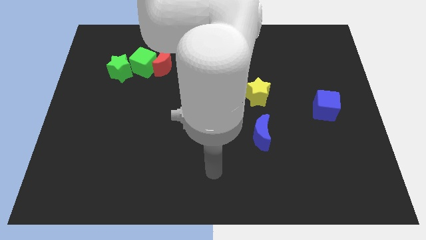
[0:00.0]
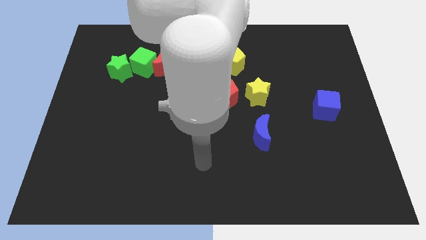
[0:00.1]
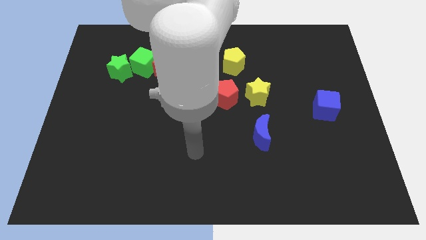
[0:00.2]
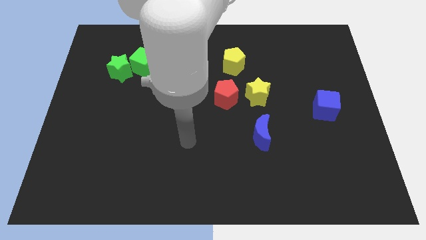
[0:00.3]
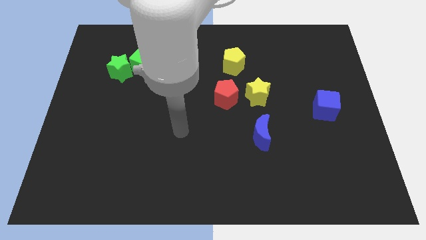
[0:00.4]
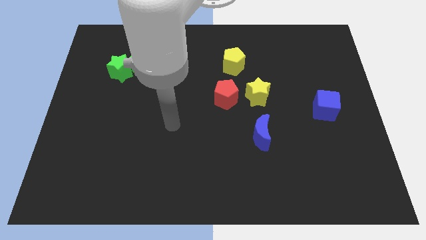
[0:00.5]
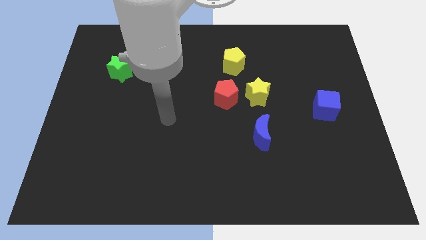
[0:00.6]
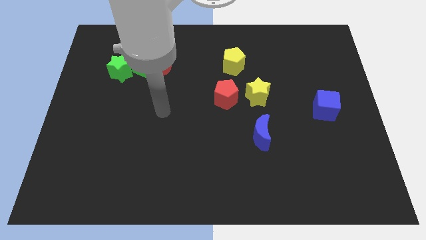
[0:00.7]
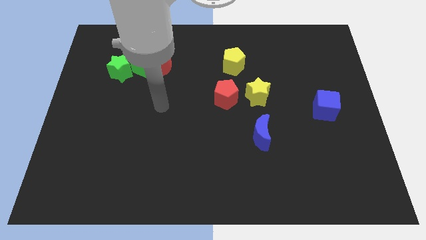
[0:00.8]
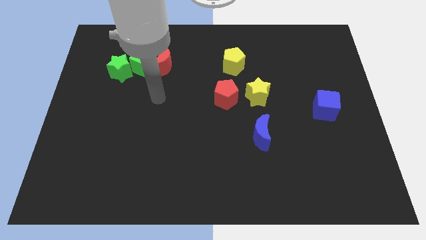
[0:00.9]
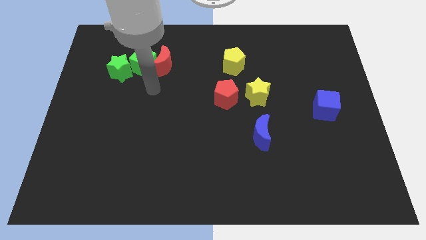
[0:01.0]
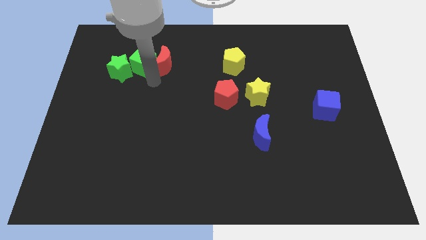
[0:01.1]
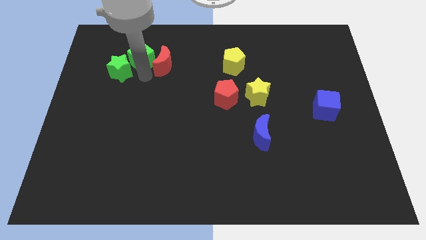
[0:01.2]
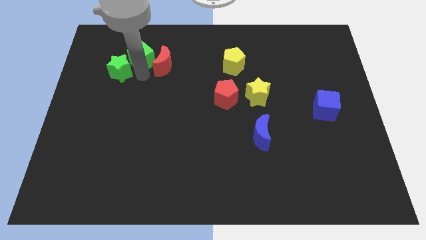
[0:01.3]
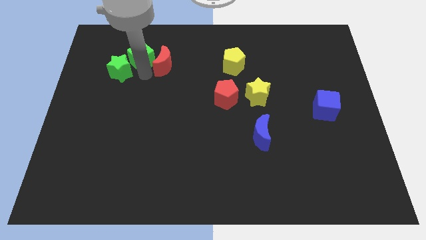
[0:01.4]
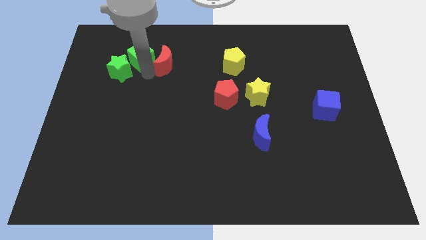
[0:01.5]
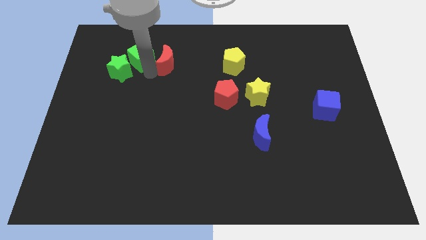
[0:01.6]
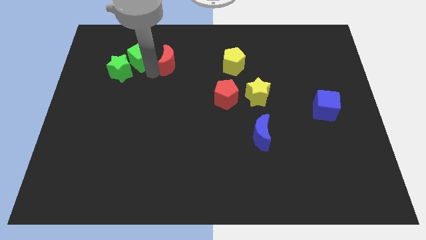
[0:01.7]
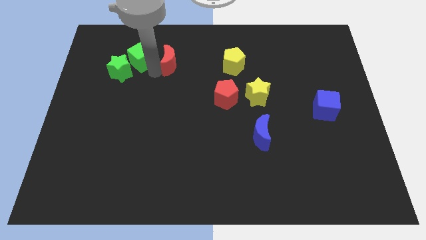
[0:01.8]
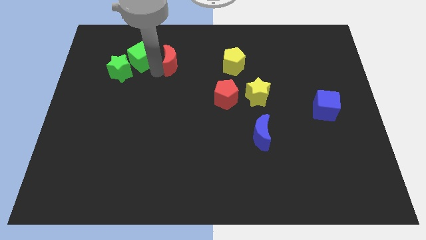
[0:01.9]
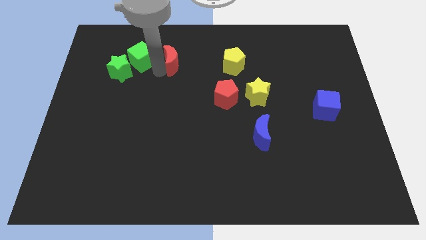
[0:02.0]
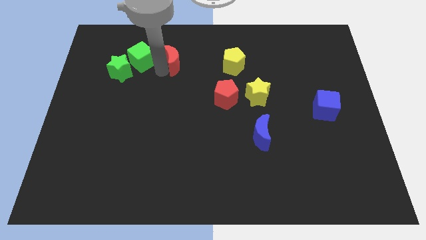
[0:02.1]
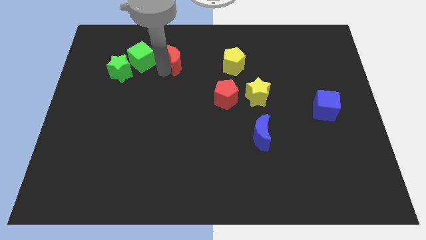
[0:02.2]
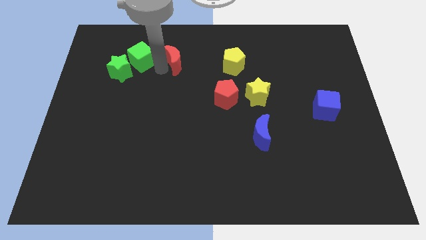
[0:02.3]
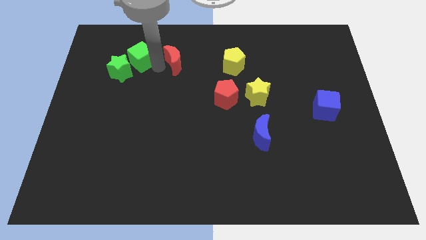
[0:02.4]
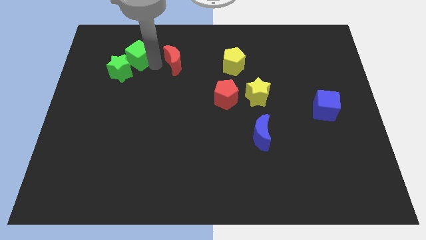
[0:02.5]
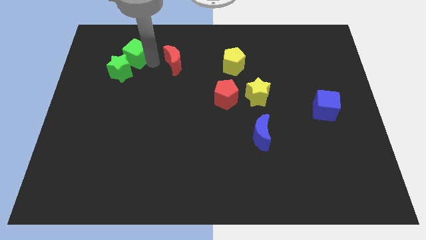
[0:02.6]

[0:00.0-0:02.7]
separate the red moon from the green cube

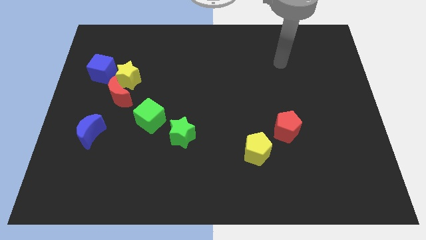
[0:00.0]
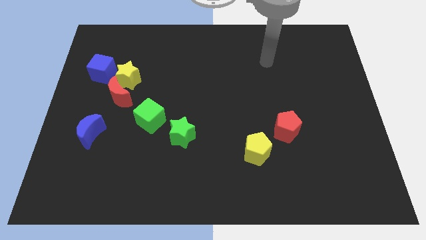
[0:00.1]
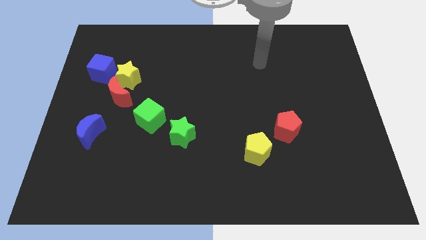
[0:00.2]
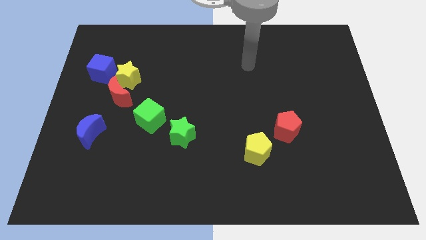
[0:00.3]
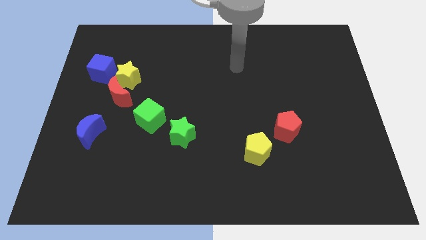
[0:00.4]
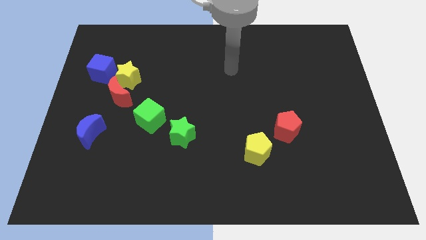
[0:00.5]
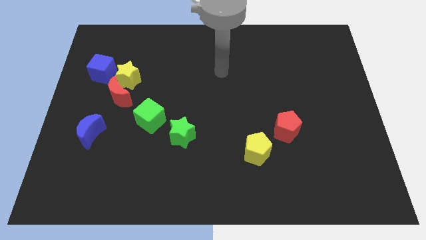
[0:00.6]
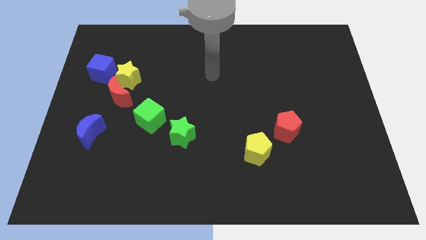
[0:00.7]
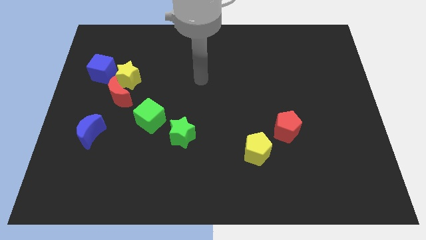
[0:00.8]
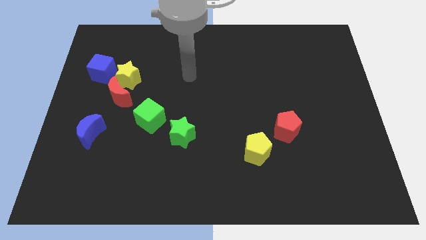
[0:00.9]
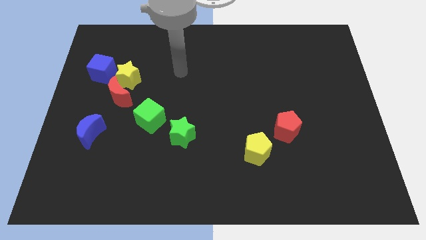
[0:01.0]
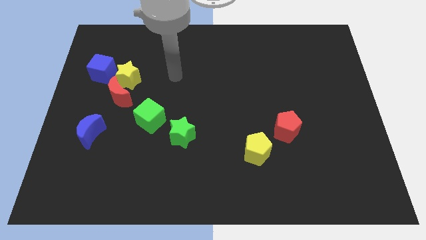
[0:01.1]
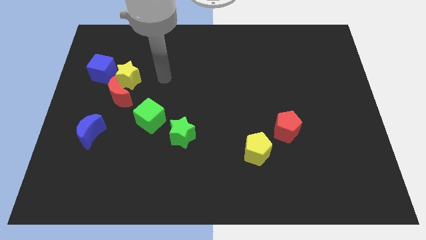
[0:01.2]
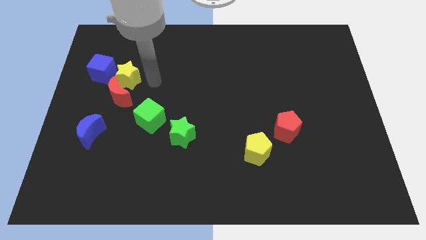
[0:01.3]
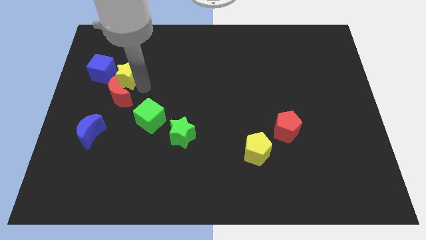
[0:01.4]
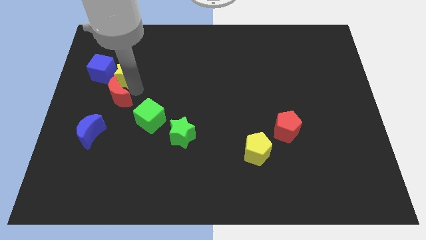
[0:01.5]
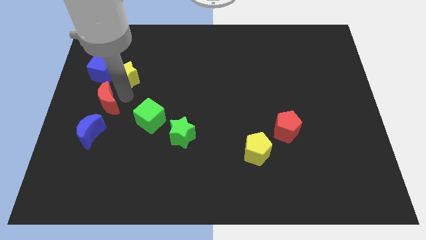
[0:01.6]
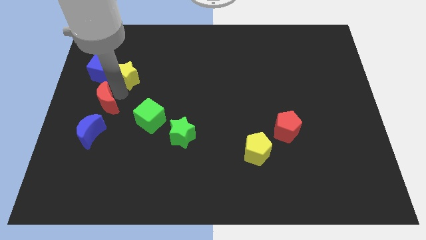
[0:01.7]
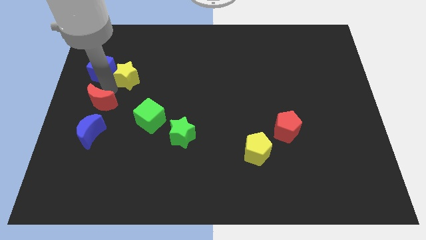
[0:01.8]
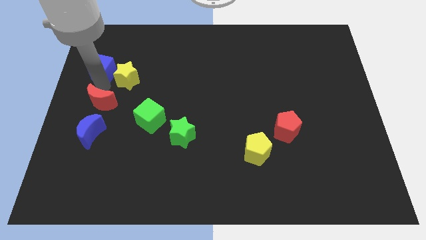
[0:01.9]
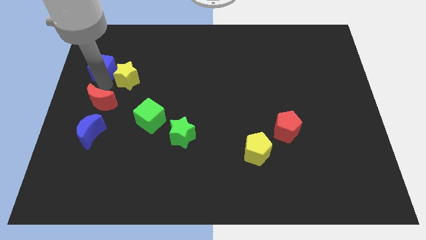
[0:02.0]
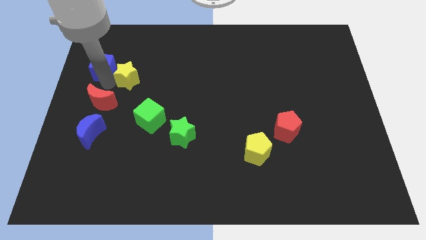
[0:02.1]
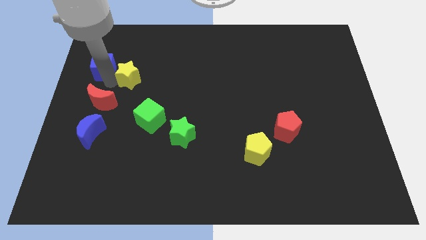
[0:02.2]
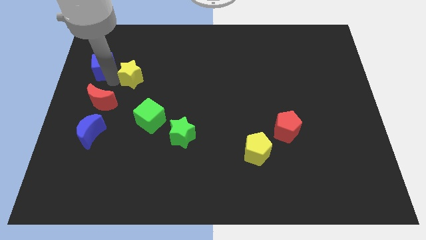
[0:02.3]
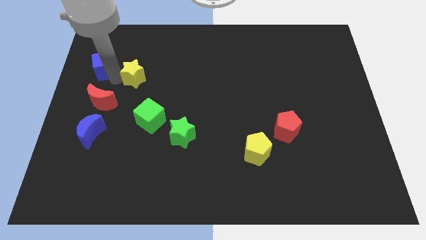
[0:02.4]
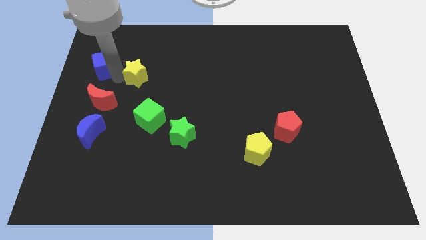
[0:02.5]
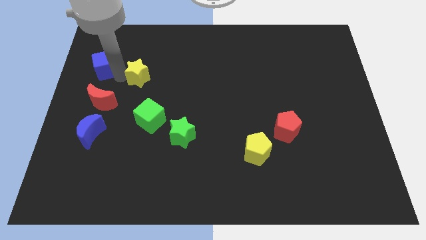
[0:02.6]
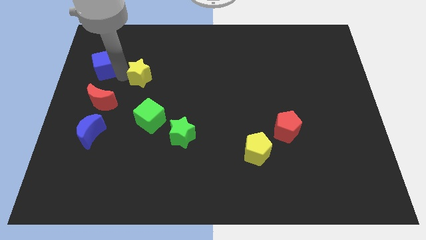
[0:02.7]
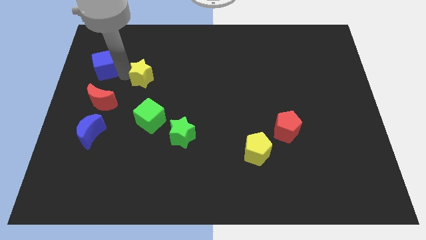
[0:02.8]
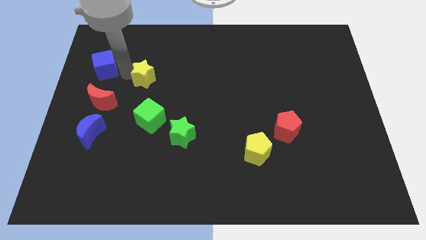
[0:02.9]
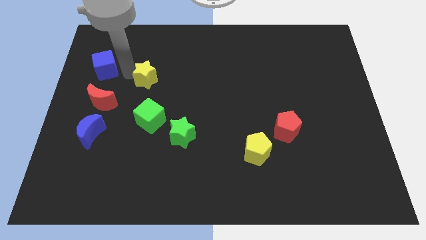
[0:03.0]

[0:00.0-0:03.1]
separate the yellow star from the red moon and blue cube

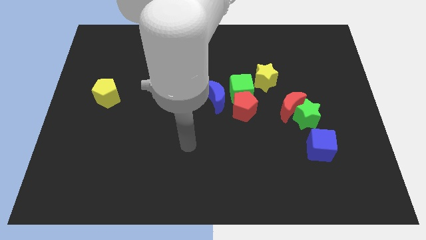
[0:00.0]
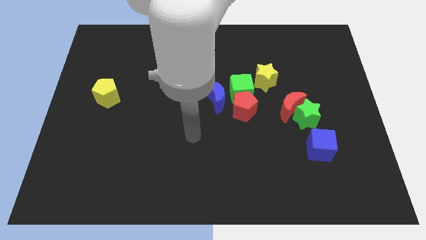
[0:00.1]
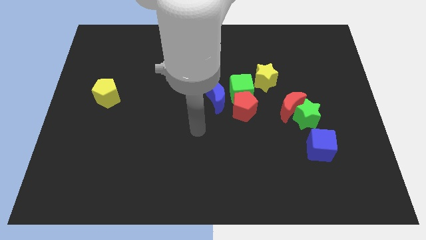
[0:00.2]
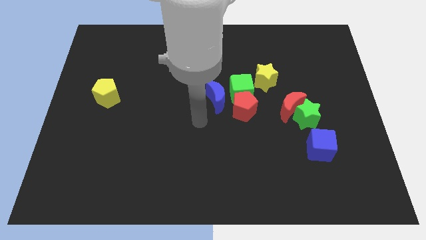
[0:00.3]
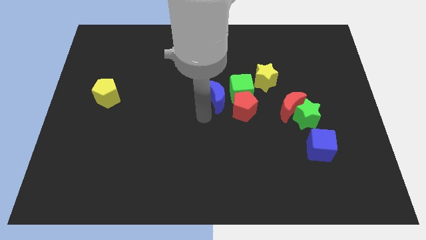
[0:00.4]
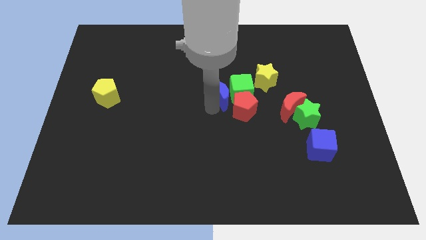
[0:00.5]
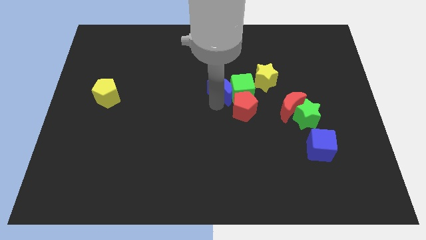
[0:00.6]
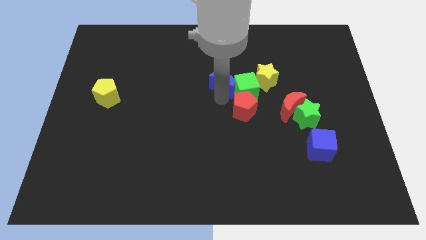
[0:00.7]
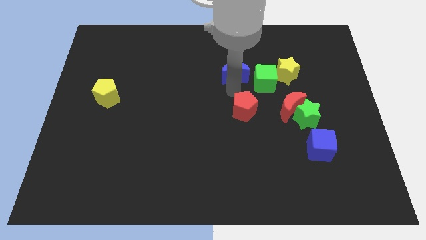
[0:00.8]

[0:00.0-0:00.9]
move the red pentagon away from the green cube and blue moon

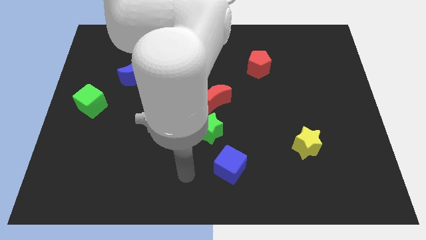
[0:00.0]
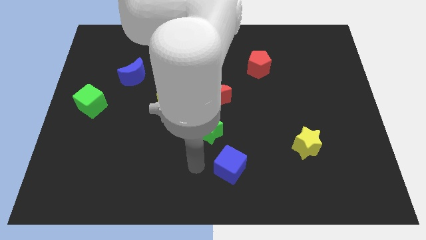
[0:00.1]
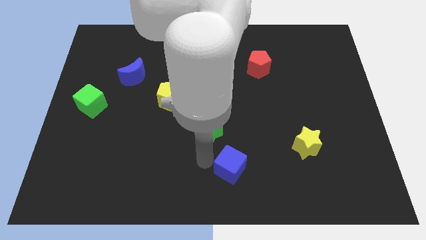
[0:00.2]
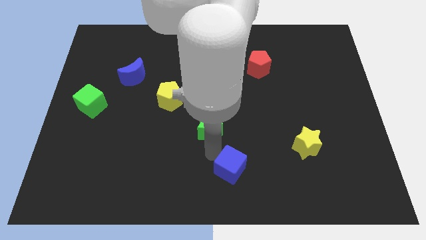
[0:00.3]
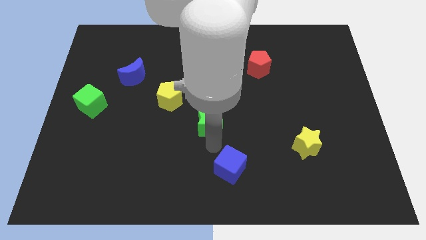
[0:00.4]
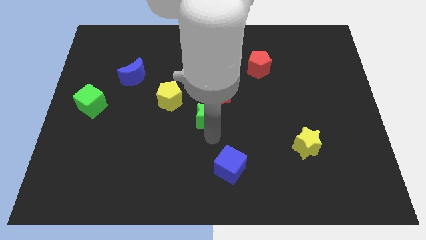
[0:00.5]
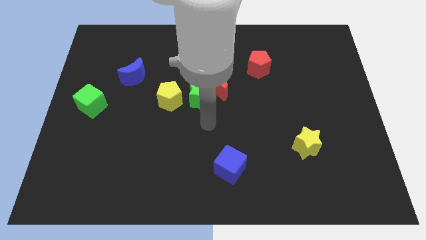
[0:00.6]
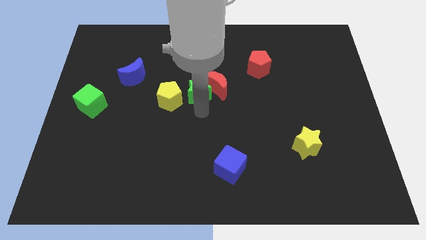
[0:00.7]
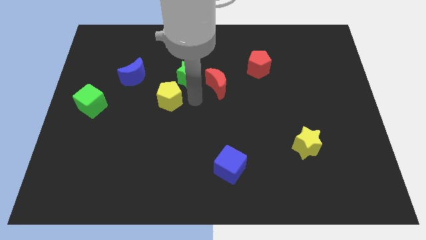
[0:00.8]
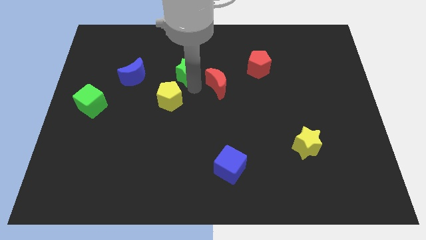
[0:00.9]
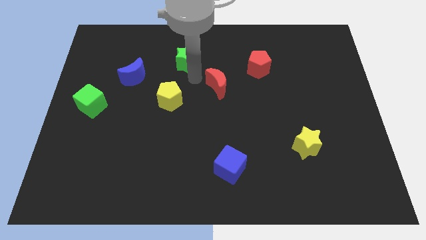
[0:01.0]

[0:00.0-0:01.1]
pull the red moon apart from the green star

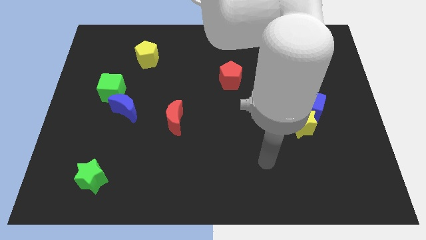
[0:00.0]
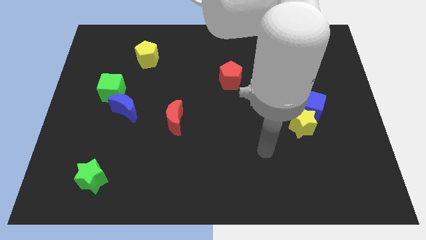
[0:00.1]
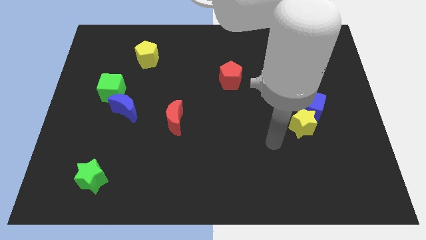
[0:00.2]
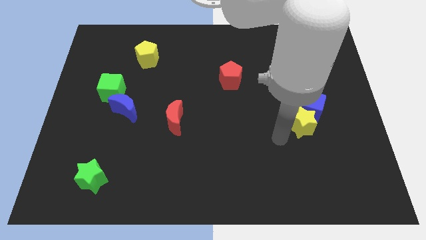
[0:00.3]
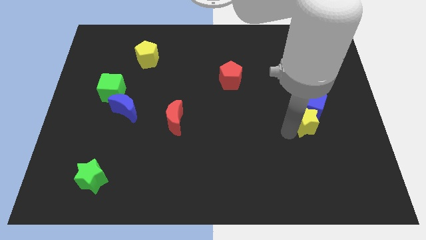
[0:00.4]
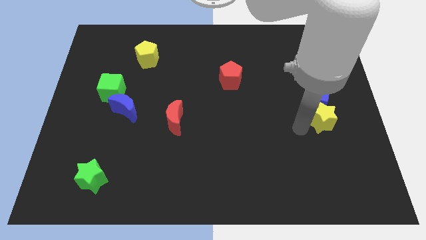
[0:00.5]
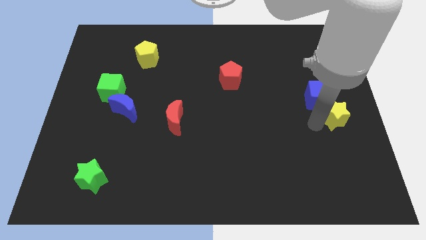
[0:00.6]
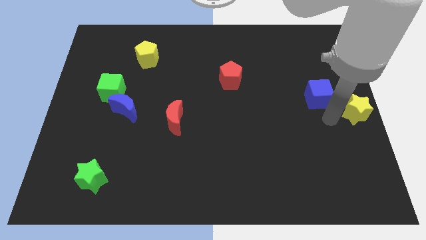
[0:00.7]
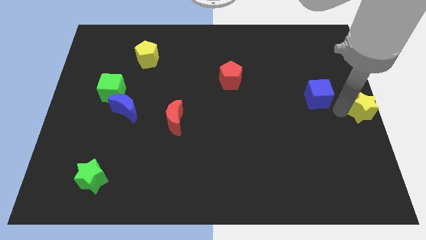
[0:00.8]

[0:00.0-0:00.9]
pull the blue cube apart from the yellow star

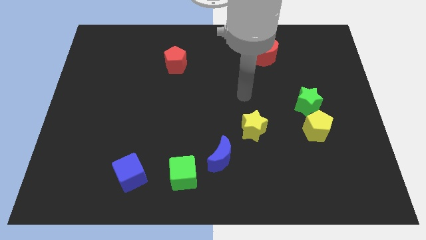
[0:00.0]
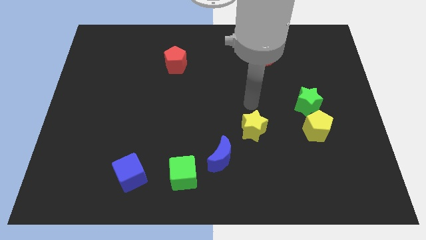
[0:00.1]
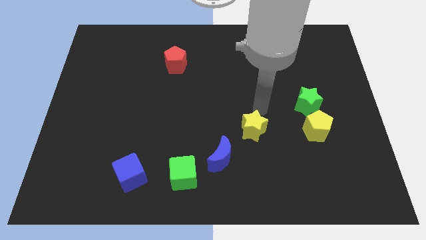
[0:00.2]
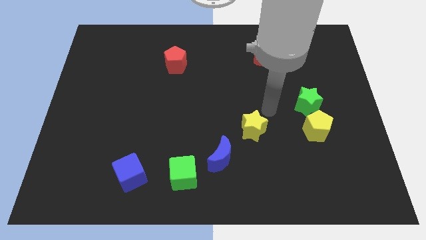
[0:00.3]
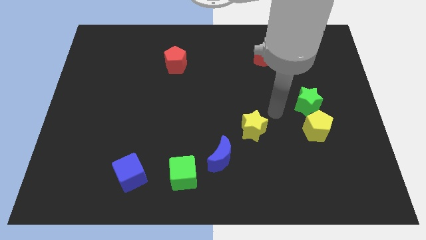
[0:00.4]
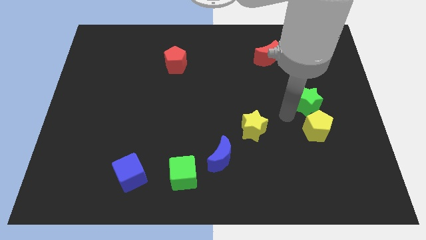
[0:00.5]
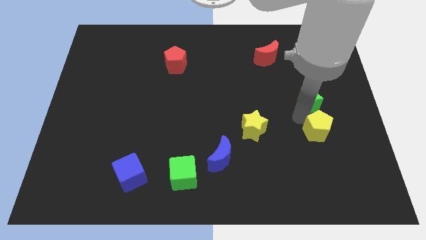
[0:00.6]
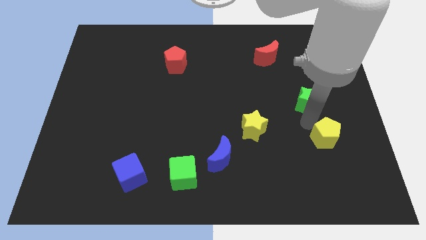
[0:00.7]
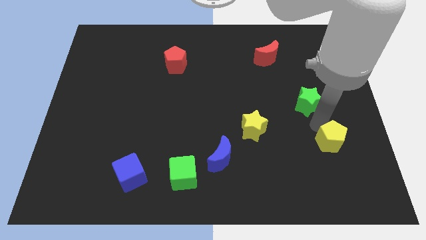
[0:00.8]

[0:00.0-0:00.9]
separate the green star from the yellow pentagon
